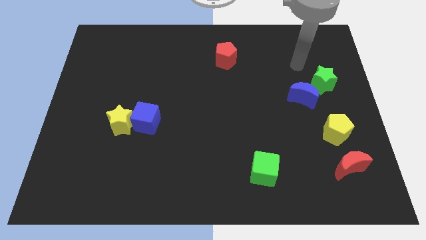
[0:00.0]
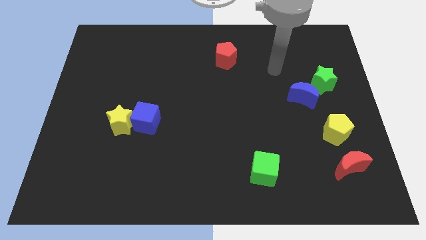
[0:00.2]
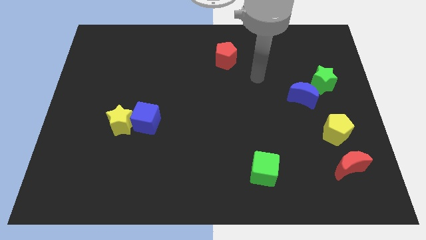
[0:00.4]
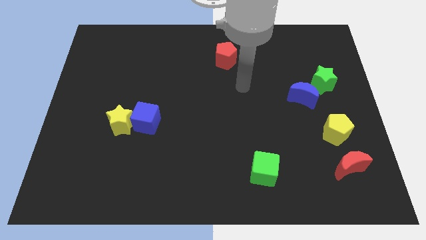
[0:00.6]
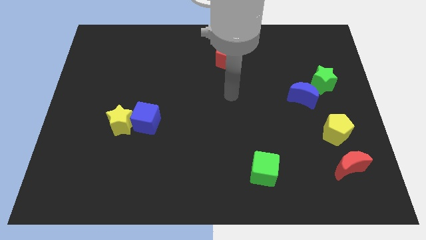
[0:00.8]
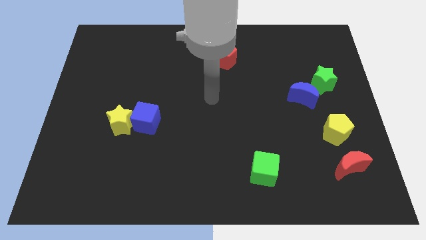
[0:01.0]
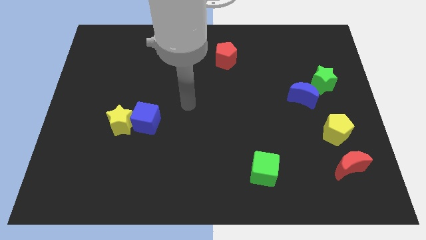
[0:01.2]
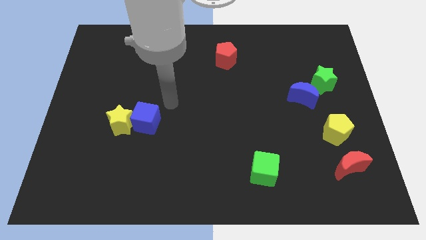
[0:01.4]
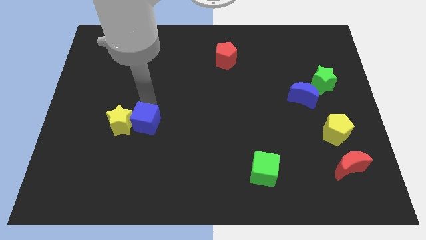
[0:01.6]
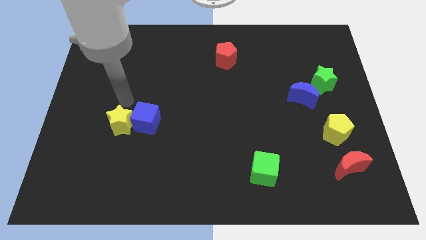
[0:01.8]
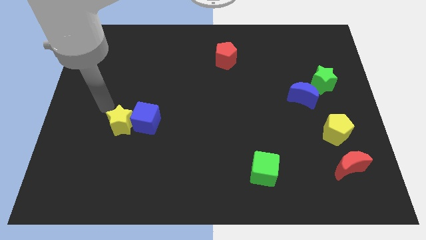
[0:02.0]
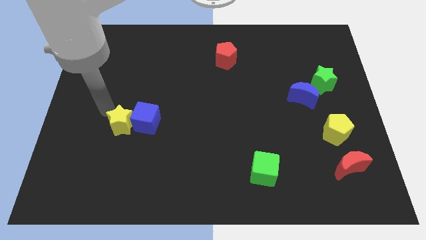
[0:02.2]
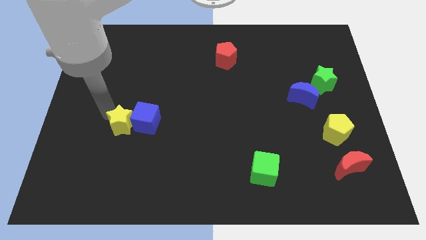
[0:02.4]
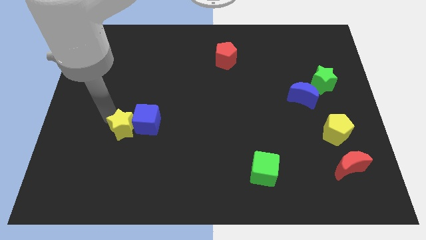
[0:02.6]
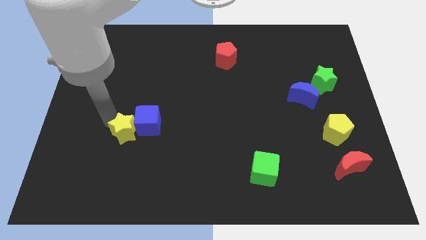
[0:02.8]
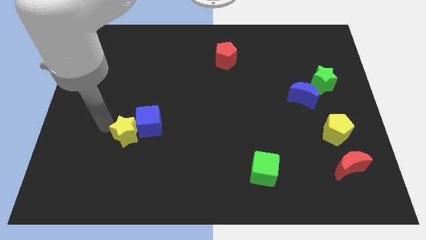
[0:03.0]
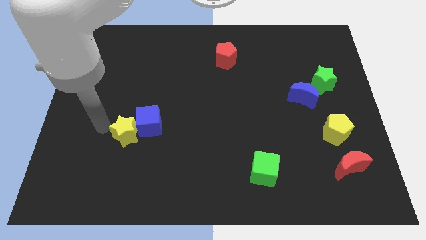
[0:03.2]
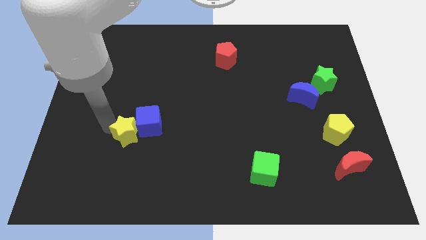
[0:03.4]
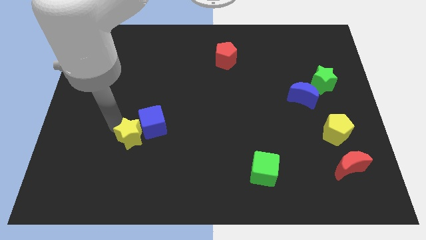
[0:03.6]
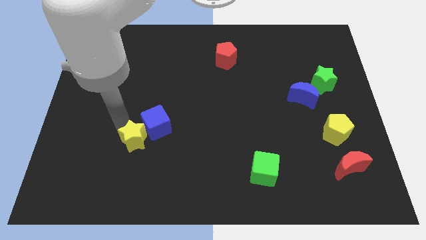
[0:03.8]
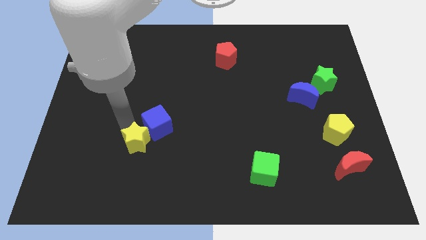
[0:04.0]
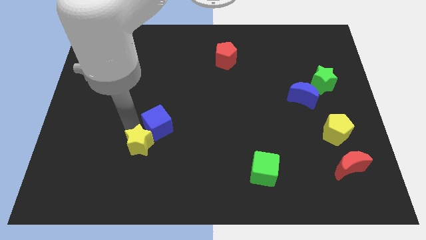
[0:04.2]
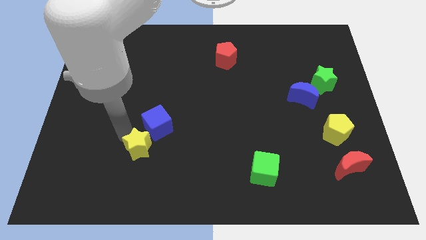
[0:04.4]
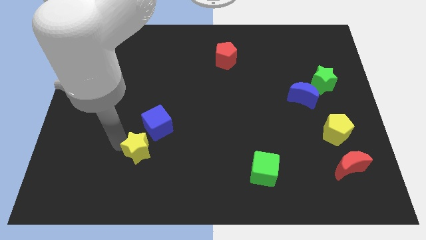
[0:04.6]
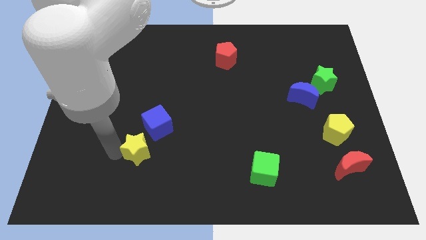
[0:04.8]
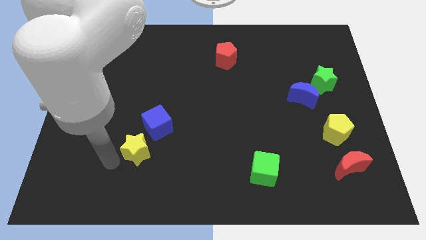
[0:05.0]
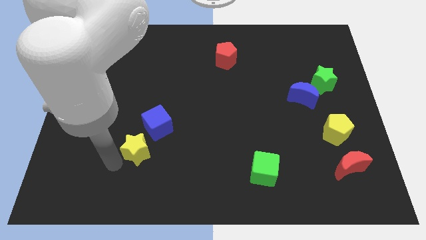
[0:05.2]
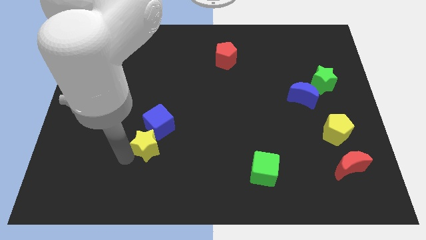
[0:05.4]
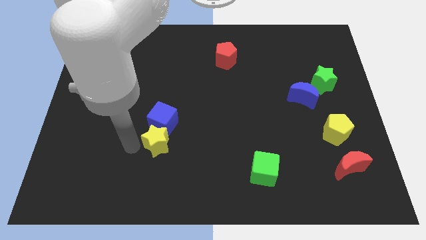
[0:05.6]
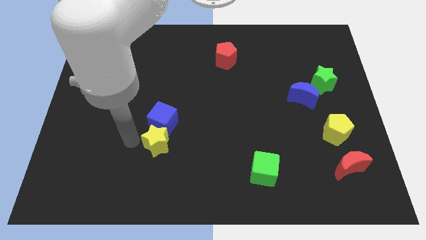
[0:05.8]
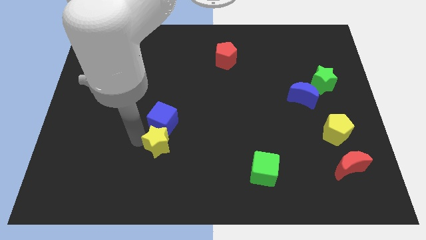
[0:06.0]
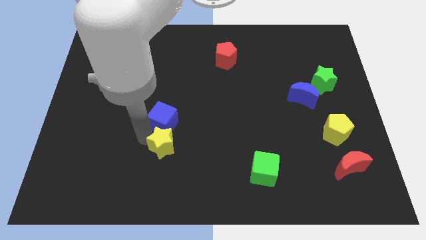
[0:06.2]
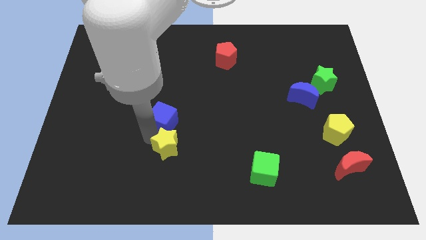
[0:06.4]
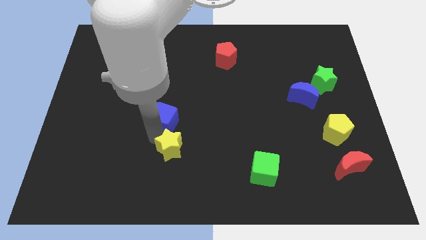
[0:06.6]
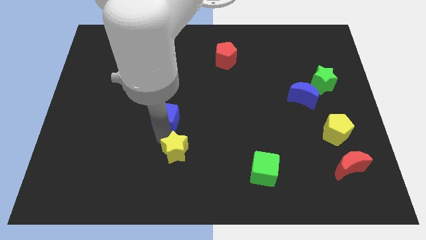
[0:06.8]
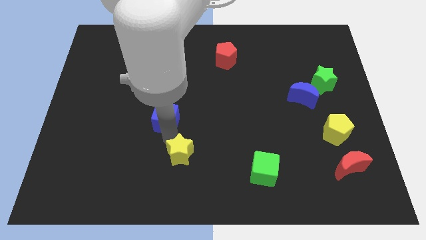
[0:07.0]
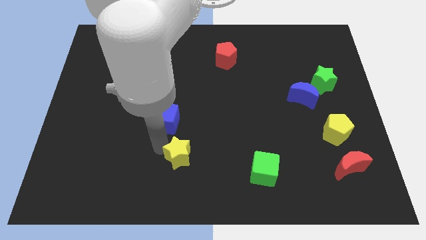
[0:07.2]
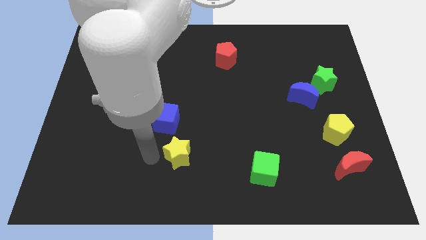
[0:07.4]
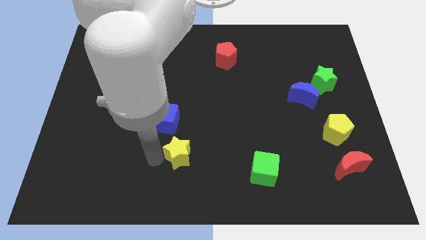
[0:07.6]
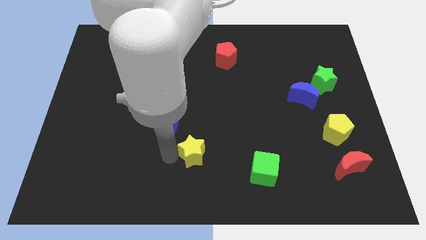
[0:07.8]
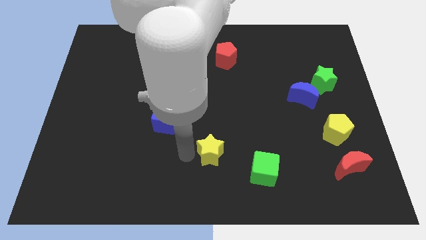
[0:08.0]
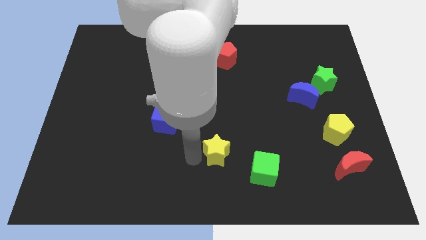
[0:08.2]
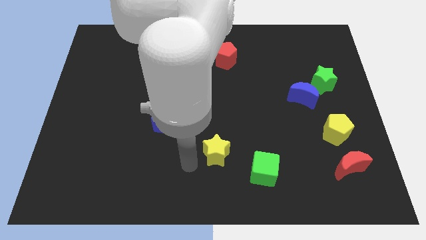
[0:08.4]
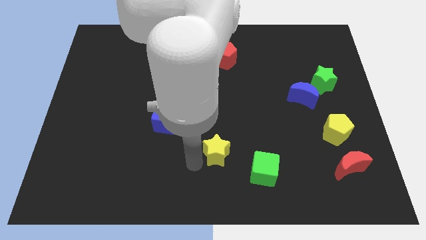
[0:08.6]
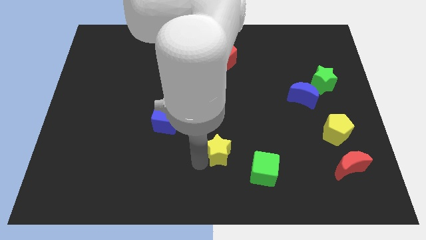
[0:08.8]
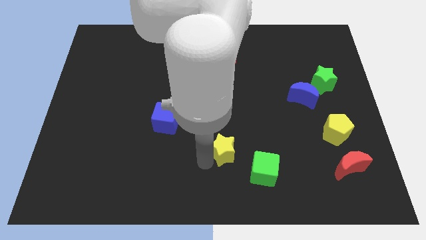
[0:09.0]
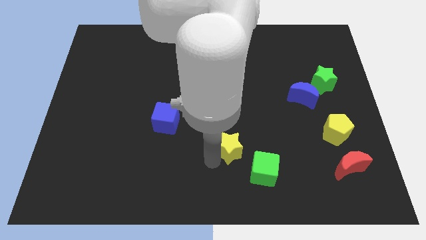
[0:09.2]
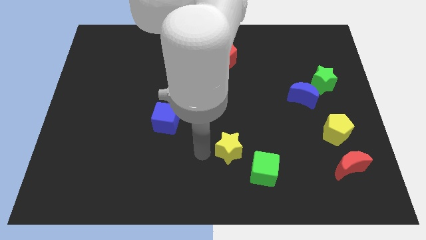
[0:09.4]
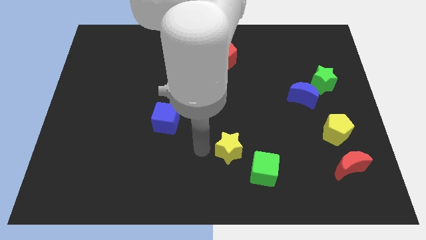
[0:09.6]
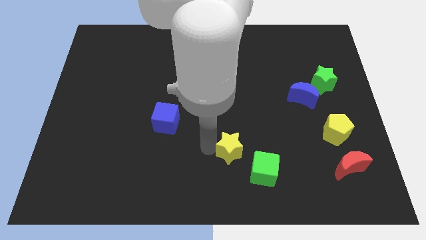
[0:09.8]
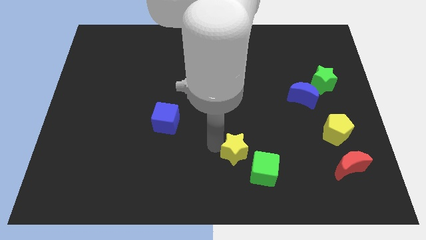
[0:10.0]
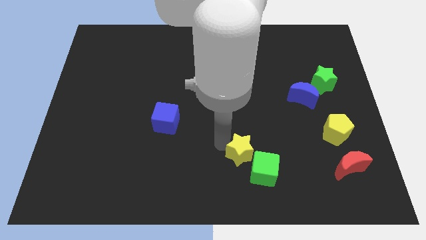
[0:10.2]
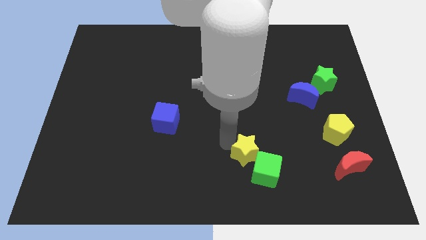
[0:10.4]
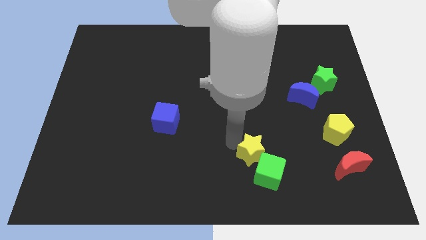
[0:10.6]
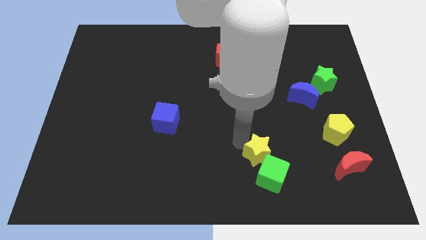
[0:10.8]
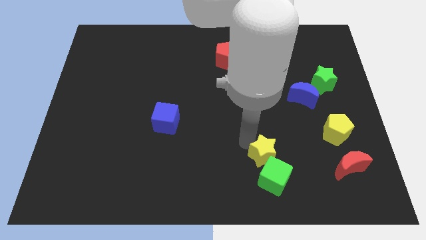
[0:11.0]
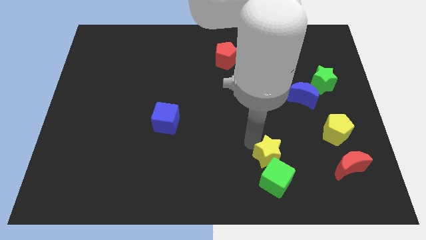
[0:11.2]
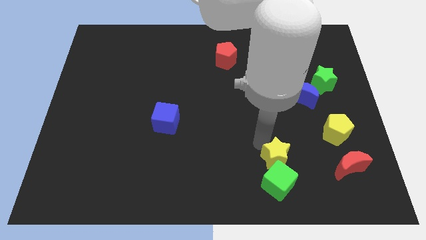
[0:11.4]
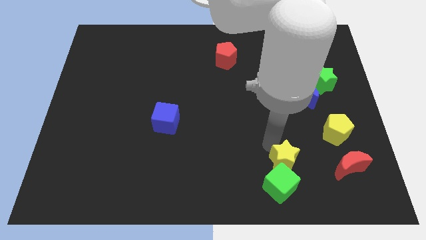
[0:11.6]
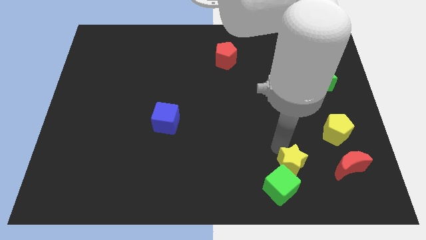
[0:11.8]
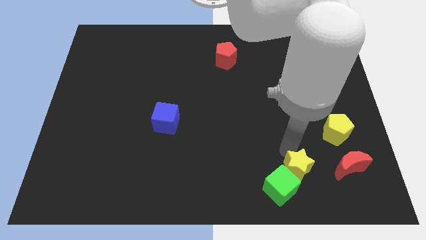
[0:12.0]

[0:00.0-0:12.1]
push the yellow star to the right side of the green cube
